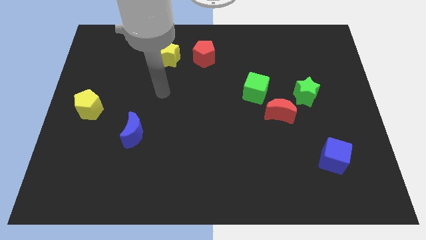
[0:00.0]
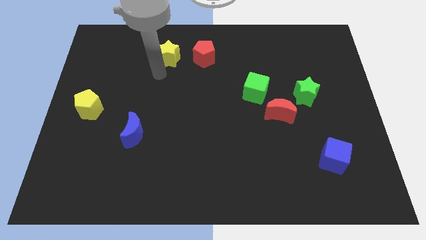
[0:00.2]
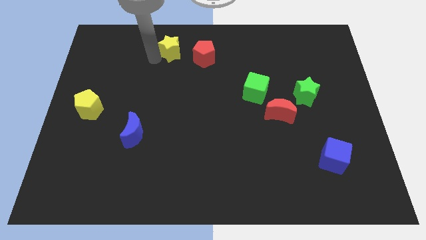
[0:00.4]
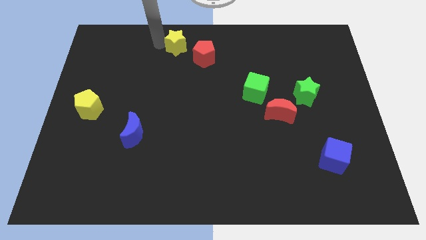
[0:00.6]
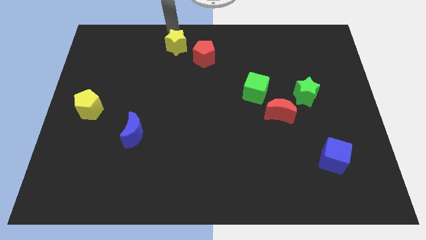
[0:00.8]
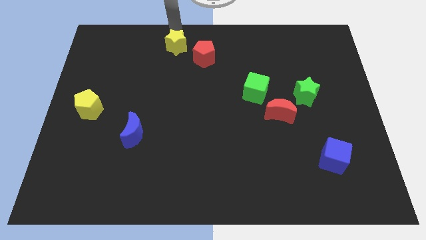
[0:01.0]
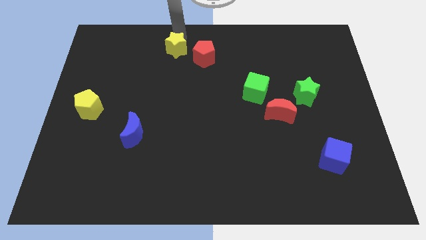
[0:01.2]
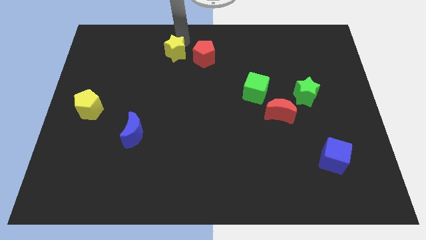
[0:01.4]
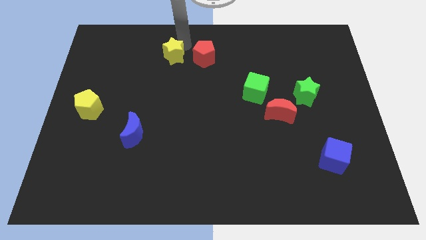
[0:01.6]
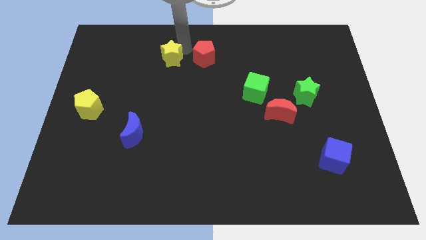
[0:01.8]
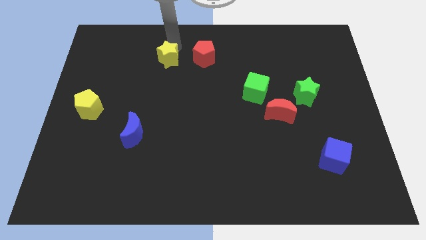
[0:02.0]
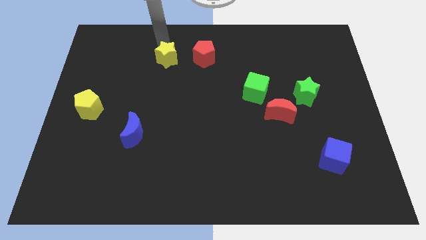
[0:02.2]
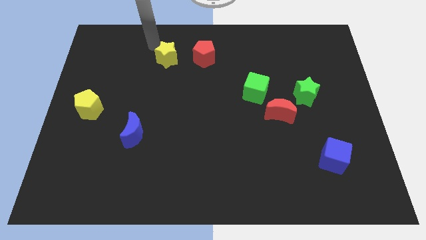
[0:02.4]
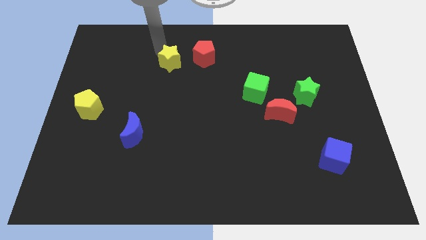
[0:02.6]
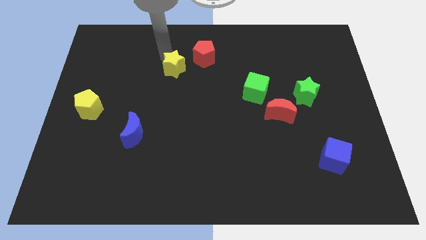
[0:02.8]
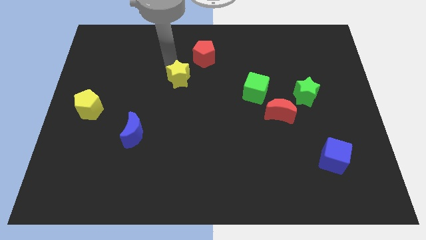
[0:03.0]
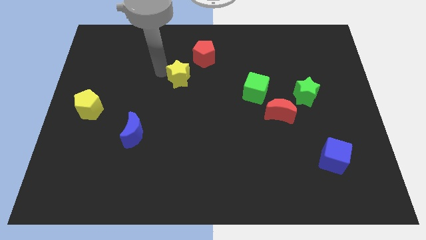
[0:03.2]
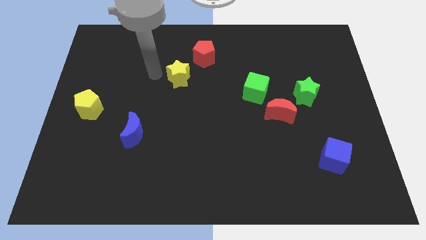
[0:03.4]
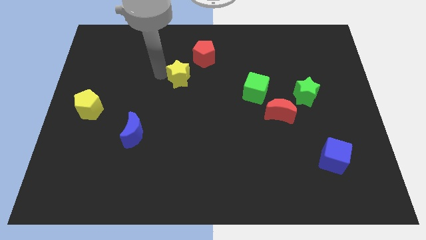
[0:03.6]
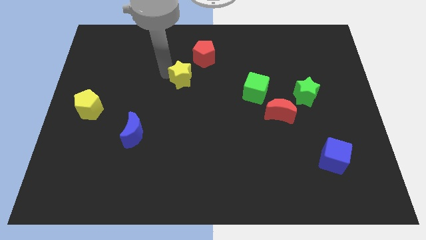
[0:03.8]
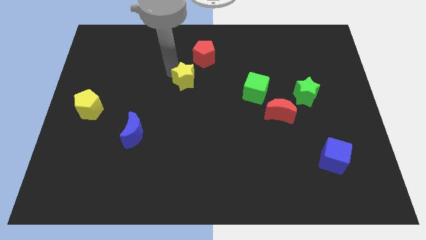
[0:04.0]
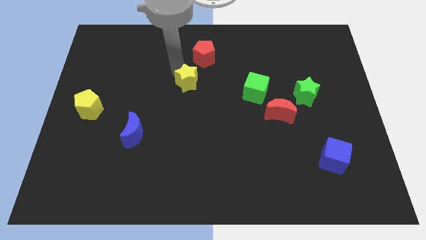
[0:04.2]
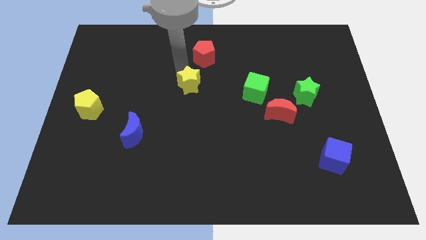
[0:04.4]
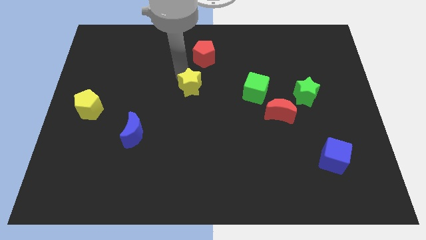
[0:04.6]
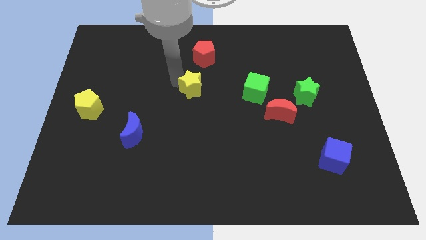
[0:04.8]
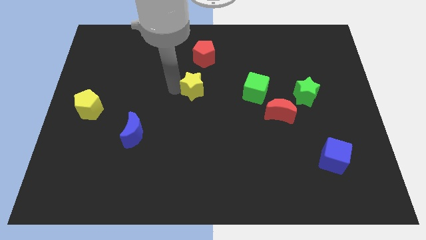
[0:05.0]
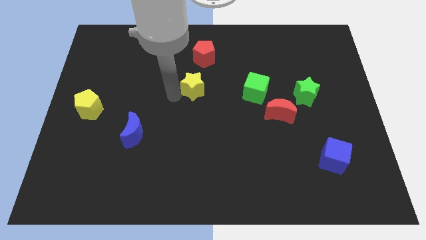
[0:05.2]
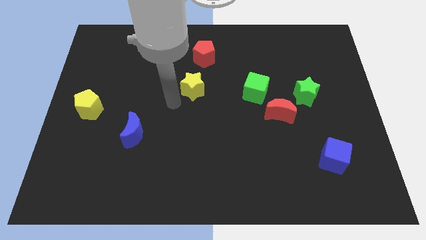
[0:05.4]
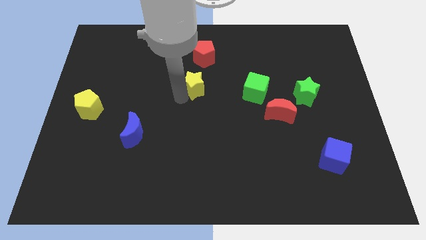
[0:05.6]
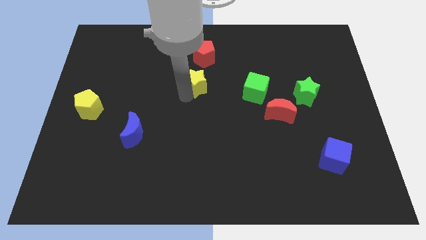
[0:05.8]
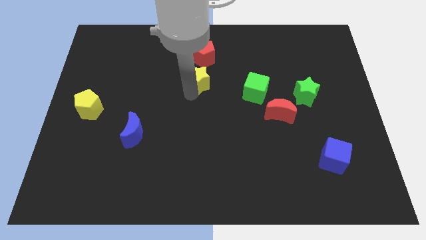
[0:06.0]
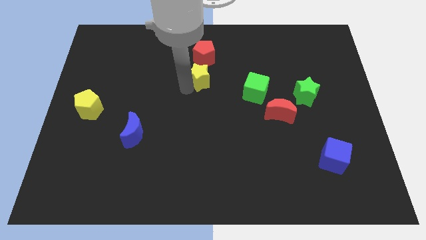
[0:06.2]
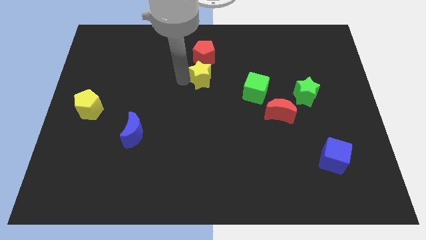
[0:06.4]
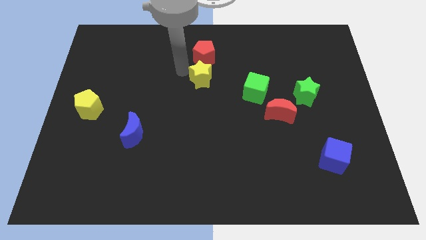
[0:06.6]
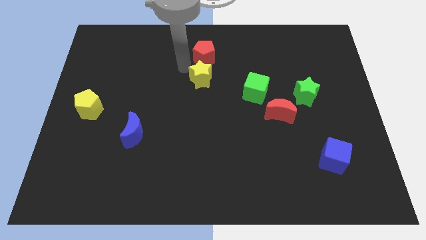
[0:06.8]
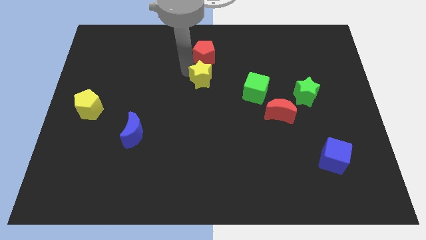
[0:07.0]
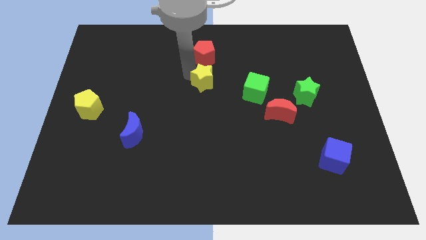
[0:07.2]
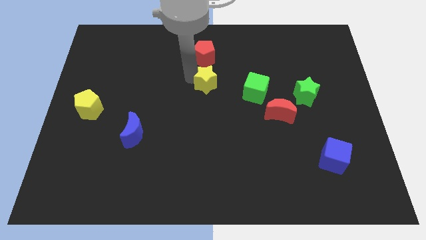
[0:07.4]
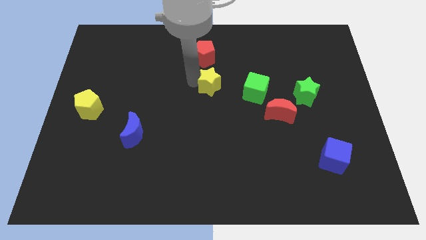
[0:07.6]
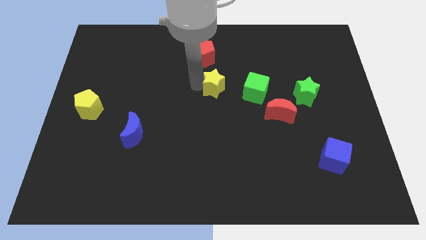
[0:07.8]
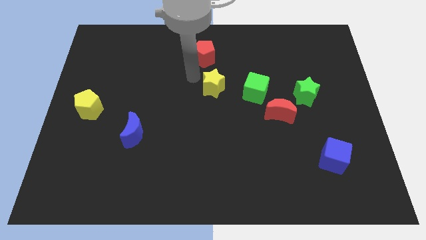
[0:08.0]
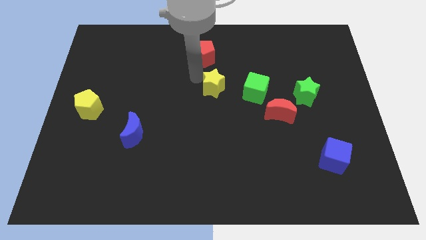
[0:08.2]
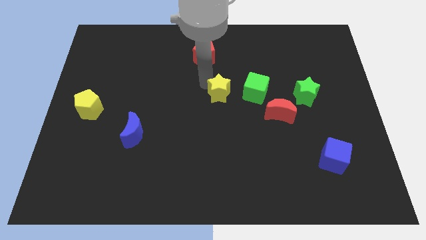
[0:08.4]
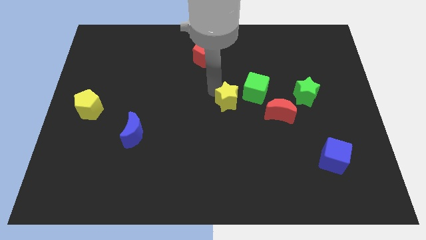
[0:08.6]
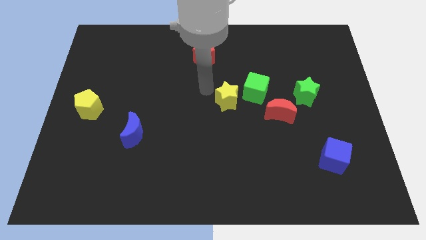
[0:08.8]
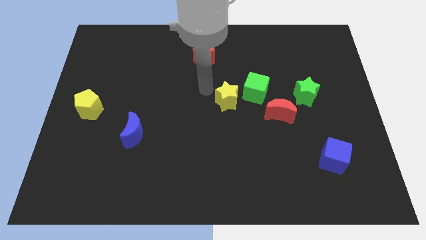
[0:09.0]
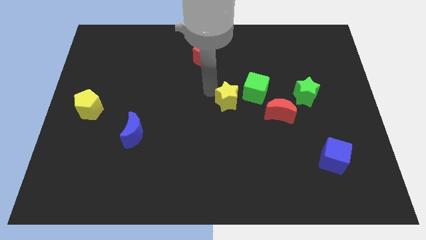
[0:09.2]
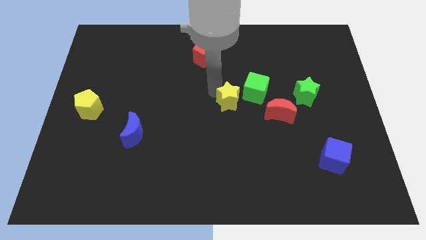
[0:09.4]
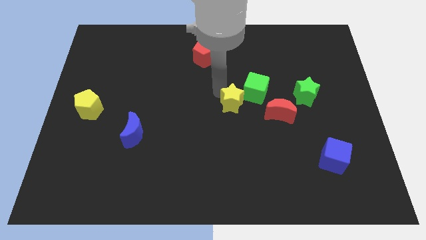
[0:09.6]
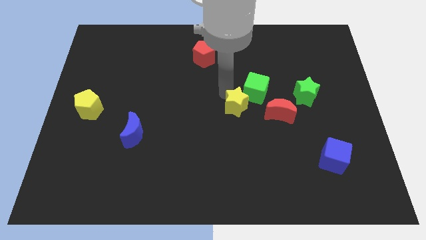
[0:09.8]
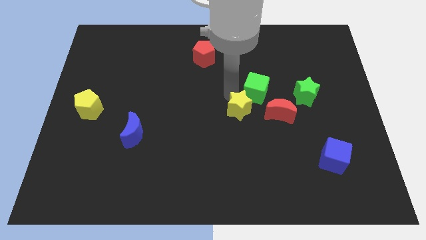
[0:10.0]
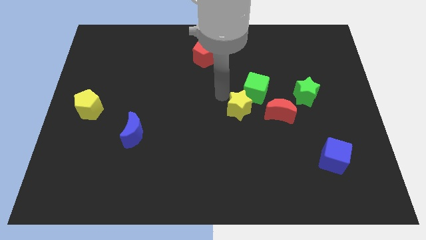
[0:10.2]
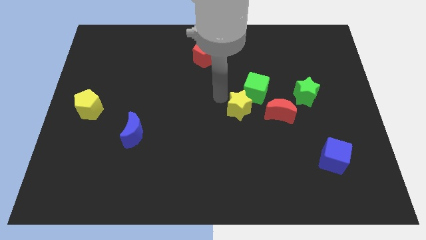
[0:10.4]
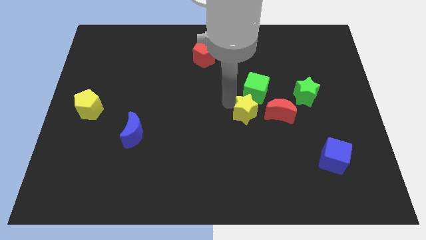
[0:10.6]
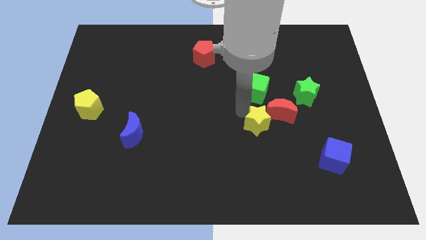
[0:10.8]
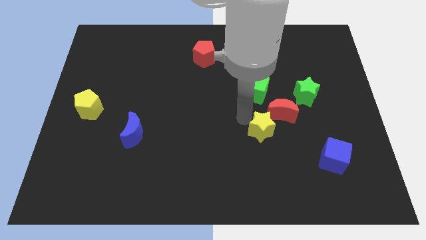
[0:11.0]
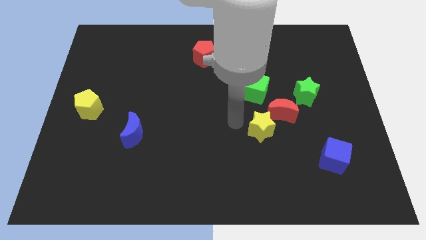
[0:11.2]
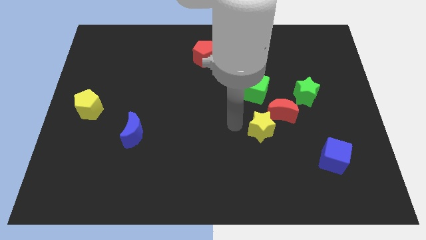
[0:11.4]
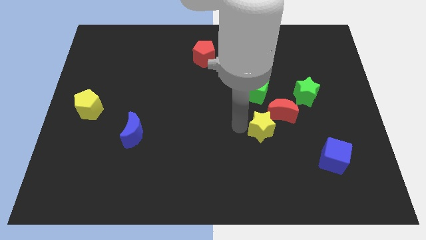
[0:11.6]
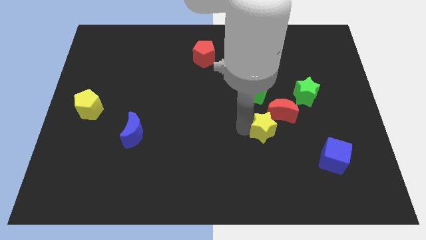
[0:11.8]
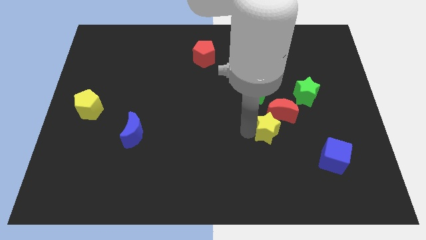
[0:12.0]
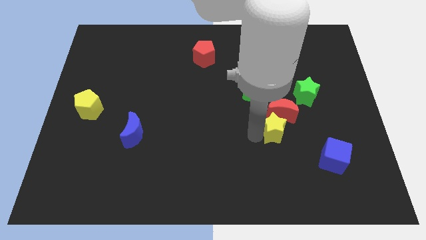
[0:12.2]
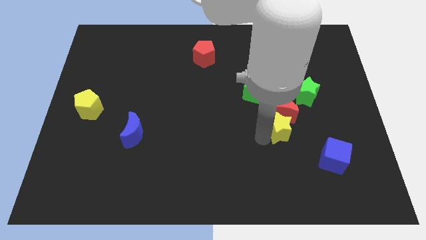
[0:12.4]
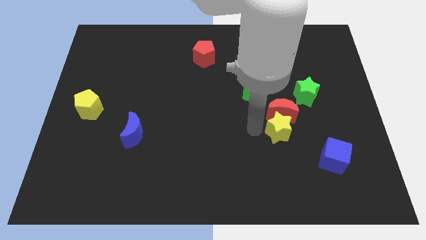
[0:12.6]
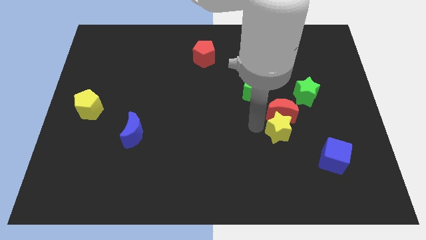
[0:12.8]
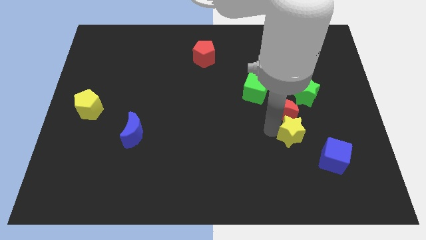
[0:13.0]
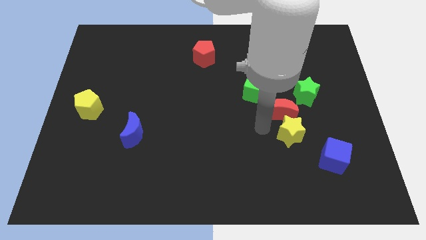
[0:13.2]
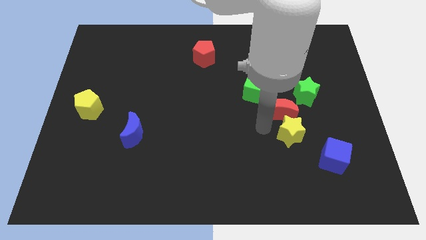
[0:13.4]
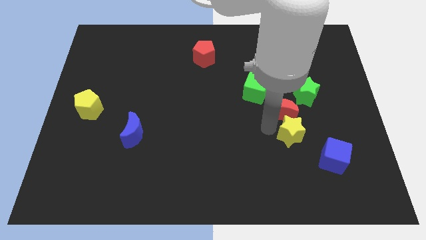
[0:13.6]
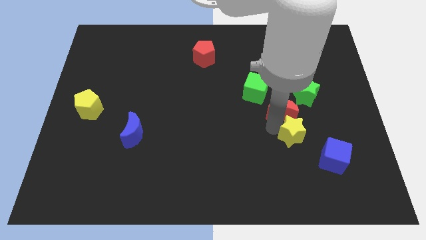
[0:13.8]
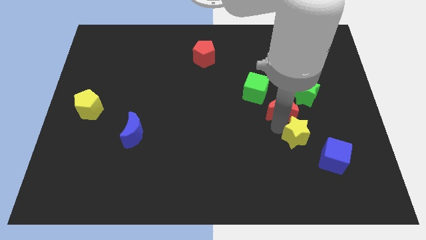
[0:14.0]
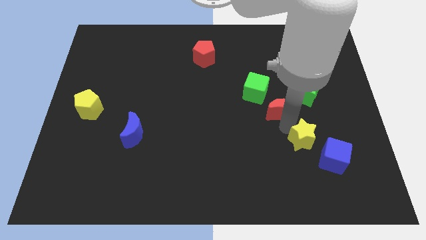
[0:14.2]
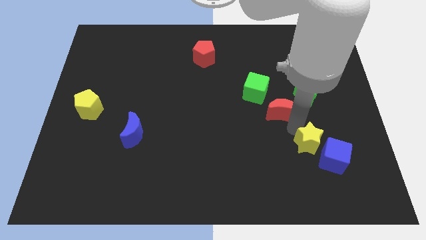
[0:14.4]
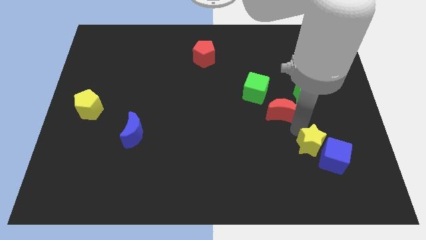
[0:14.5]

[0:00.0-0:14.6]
slide the yellow star towards the blue cube
